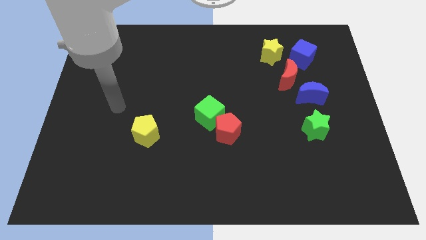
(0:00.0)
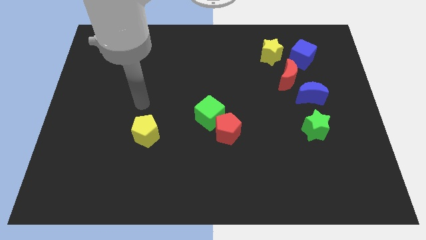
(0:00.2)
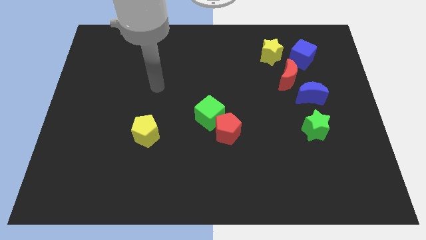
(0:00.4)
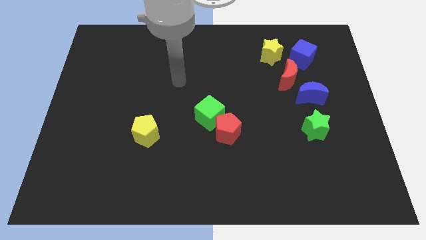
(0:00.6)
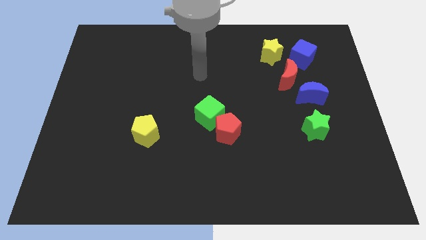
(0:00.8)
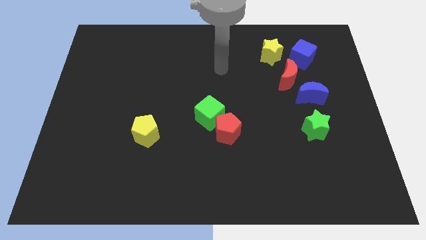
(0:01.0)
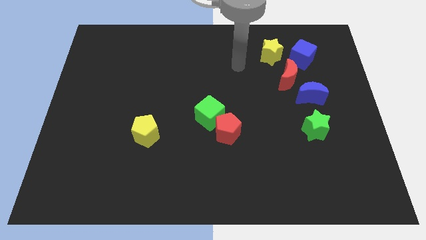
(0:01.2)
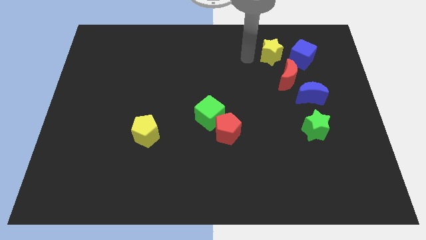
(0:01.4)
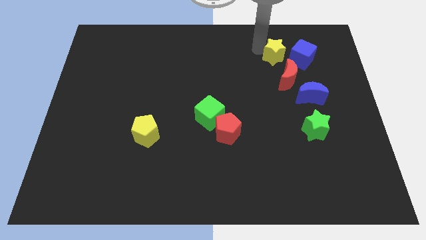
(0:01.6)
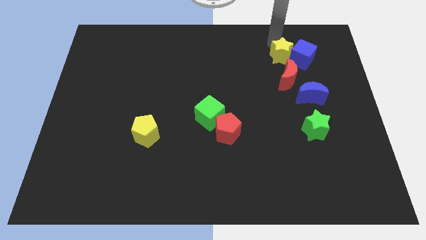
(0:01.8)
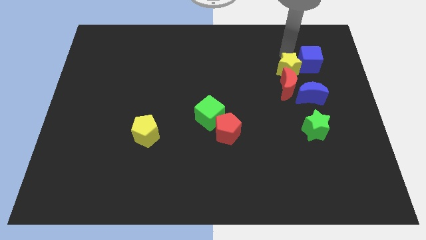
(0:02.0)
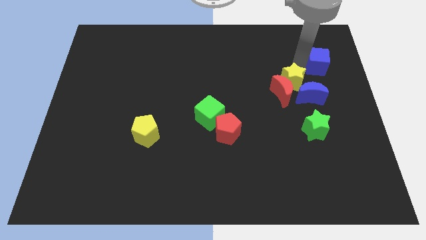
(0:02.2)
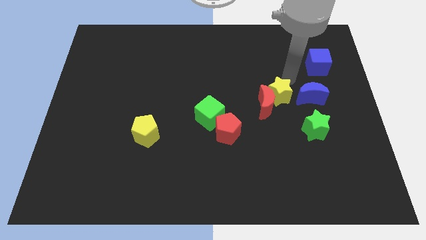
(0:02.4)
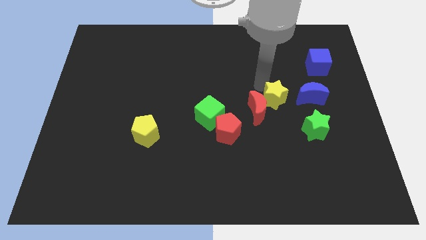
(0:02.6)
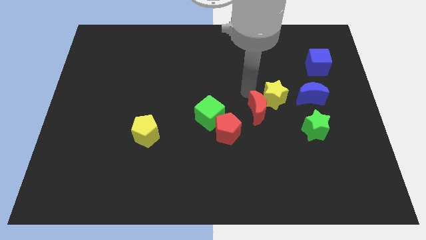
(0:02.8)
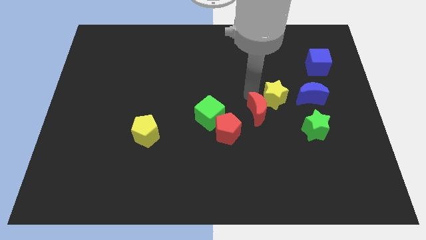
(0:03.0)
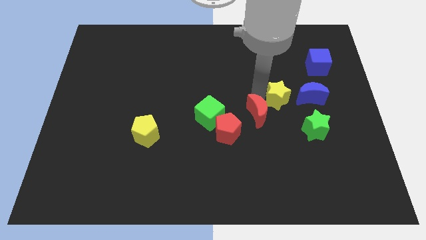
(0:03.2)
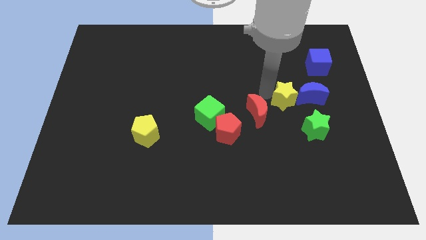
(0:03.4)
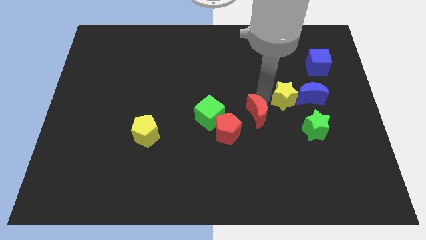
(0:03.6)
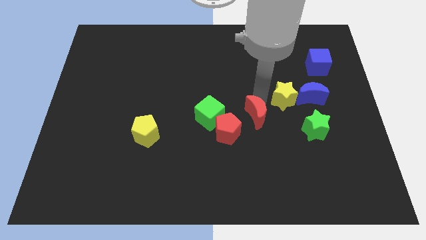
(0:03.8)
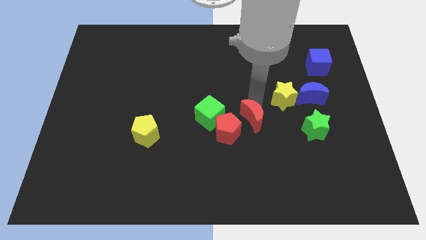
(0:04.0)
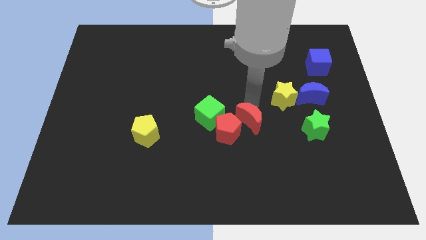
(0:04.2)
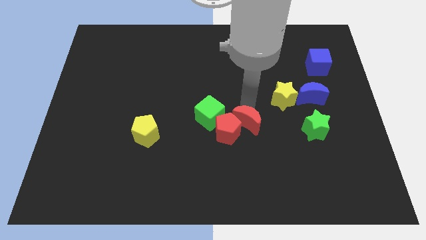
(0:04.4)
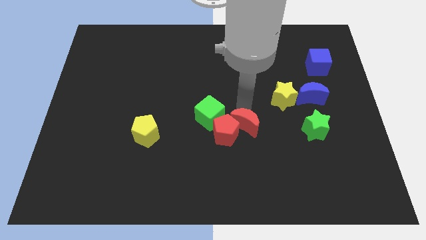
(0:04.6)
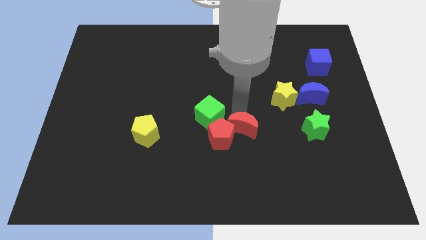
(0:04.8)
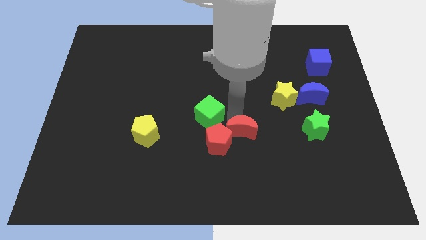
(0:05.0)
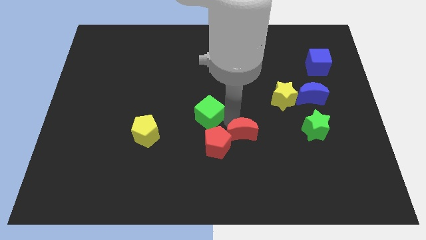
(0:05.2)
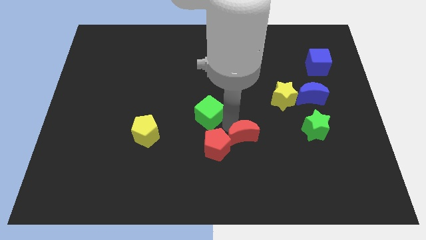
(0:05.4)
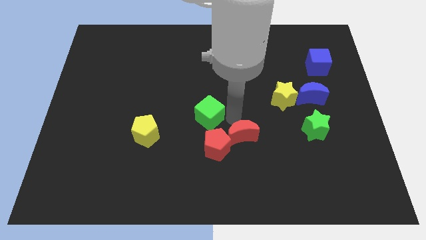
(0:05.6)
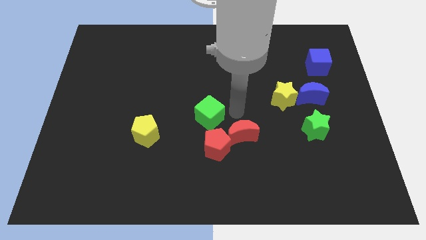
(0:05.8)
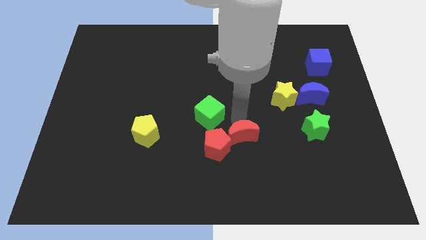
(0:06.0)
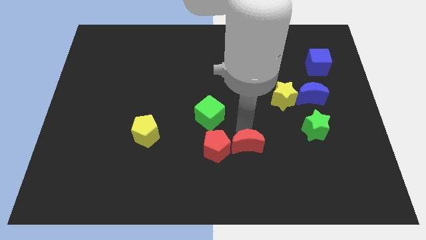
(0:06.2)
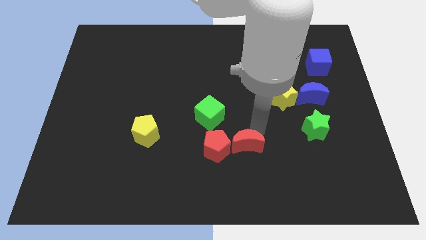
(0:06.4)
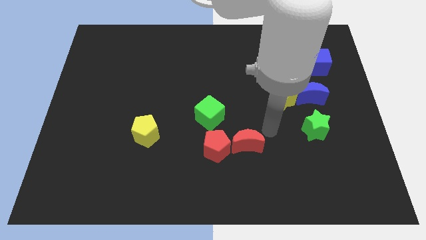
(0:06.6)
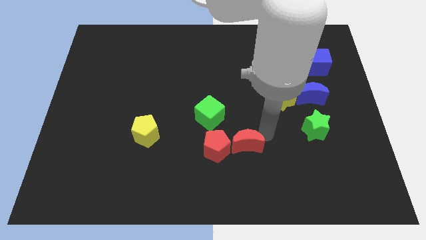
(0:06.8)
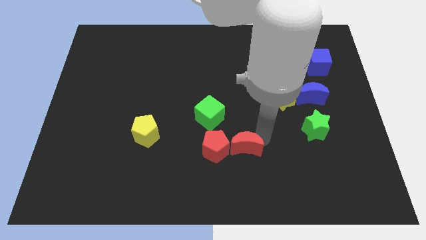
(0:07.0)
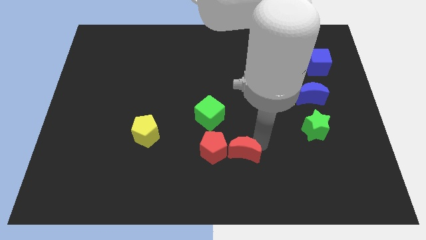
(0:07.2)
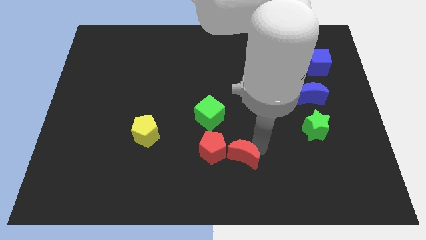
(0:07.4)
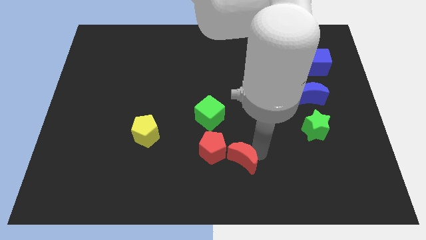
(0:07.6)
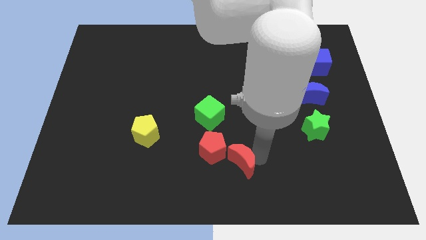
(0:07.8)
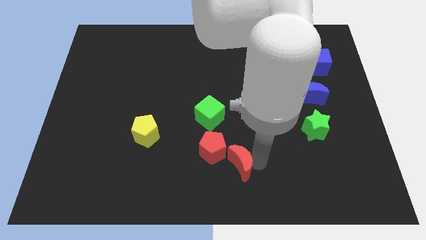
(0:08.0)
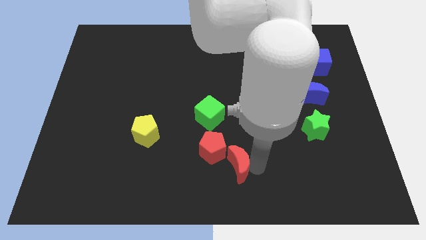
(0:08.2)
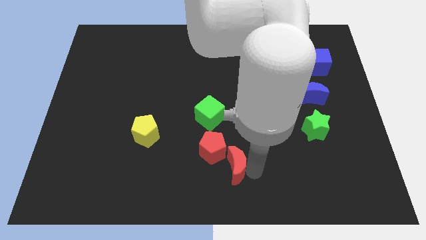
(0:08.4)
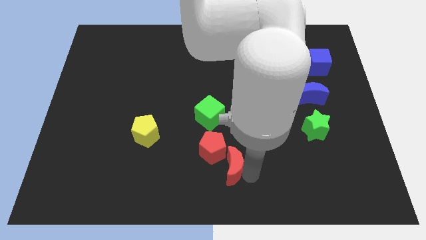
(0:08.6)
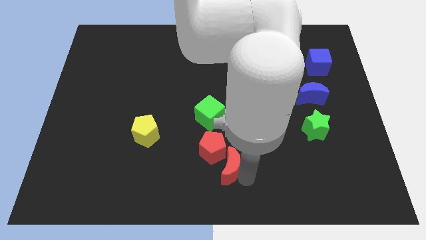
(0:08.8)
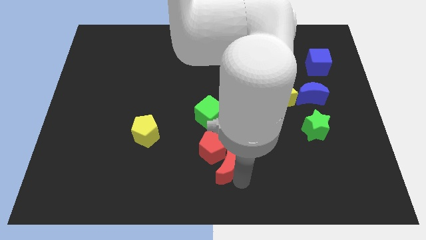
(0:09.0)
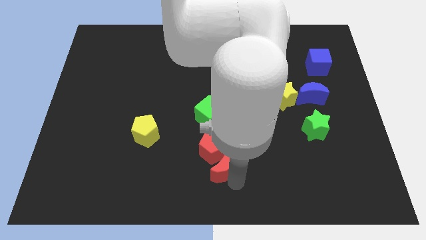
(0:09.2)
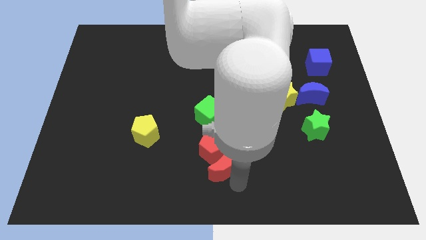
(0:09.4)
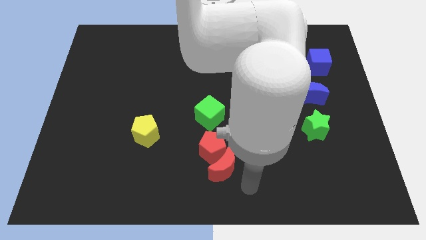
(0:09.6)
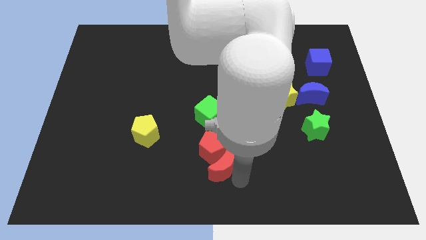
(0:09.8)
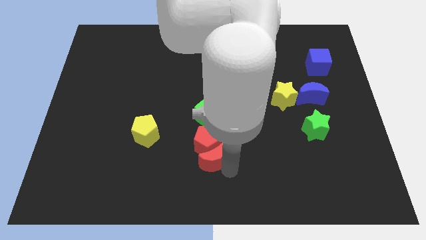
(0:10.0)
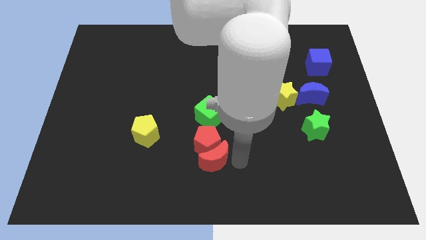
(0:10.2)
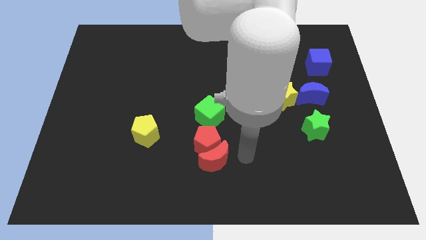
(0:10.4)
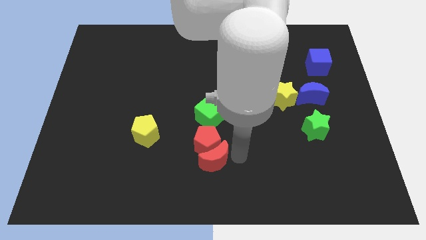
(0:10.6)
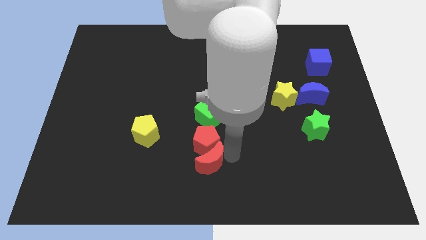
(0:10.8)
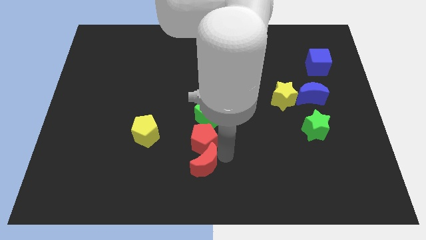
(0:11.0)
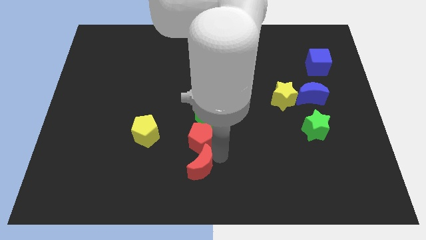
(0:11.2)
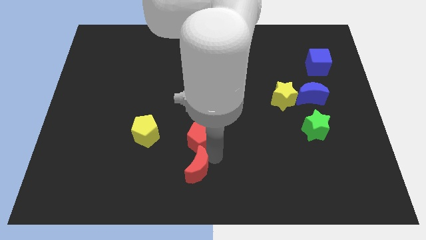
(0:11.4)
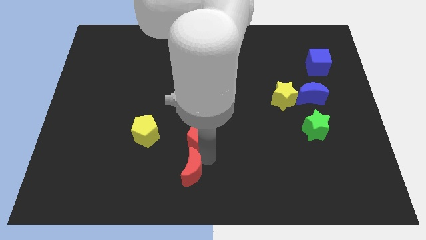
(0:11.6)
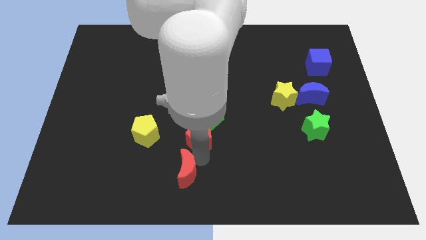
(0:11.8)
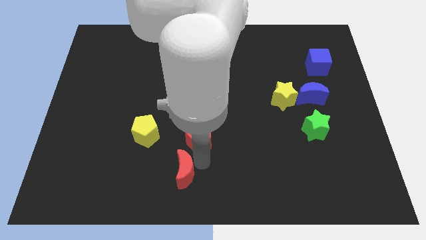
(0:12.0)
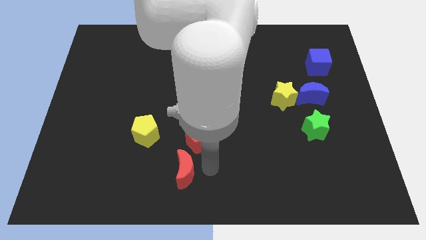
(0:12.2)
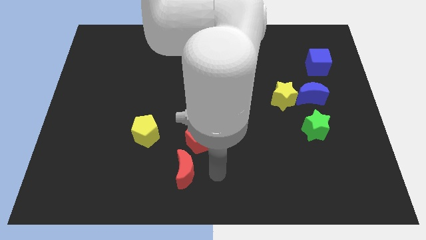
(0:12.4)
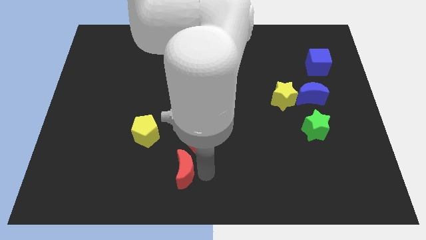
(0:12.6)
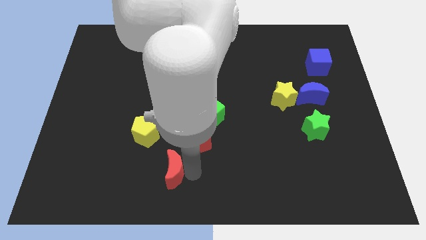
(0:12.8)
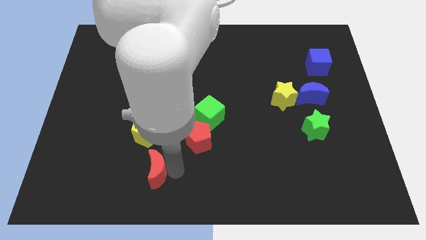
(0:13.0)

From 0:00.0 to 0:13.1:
slide the red moon to the bottom of the yellow pentagon

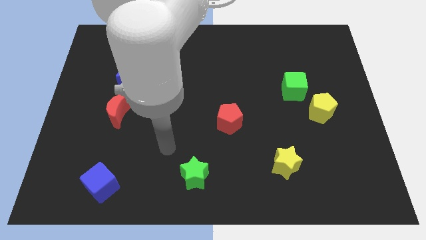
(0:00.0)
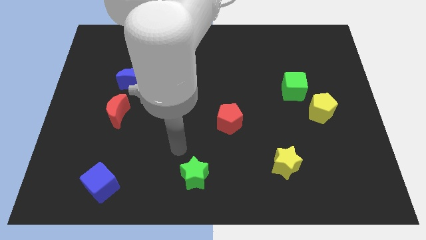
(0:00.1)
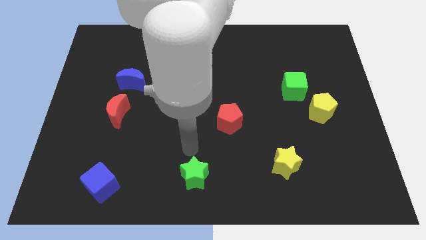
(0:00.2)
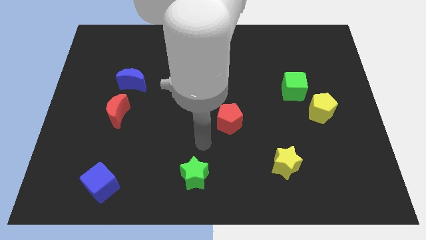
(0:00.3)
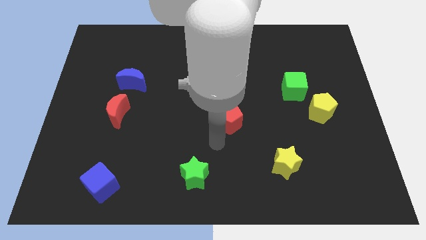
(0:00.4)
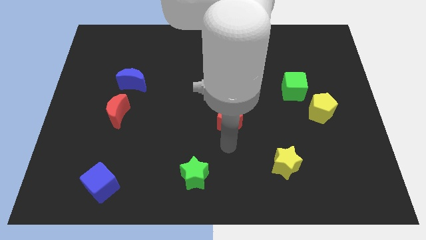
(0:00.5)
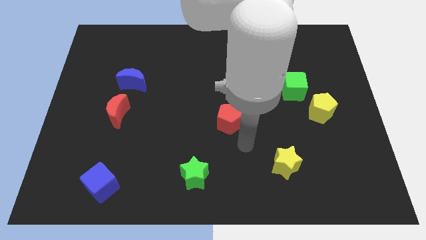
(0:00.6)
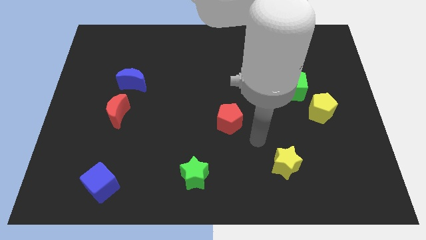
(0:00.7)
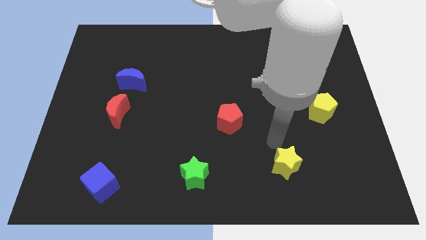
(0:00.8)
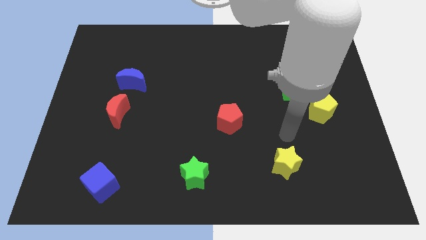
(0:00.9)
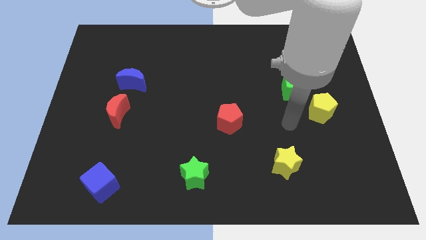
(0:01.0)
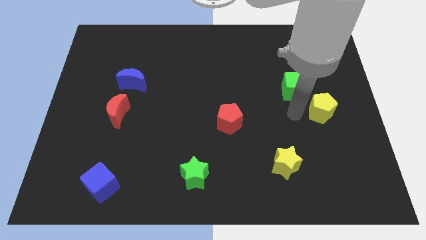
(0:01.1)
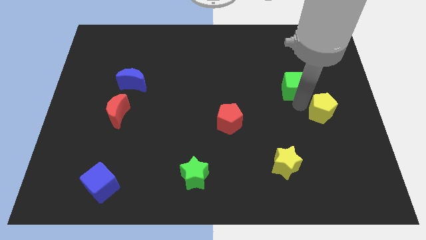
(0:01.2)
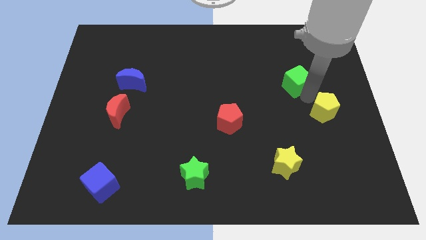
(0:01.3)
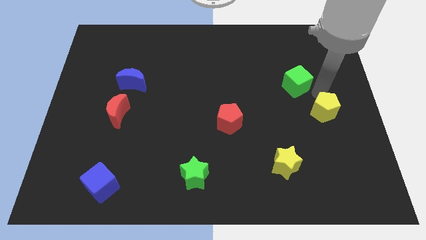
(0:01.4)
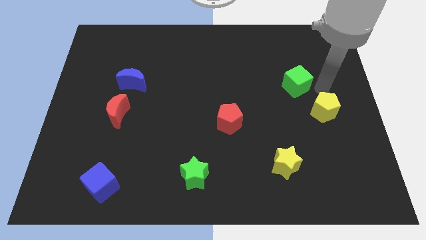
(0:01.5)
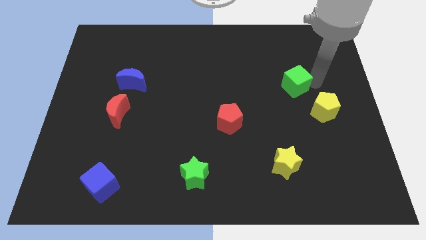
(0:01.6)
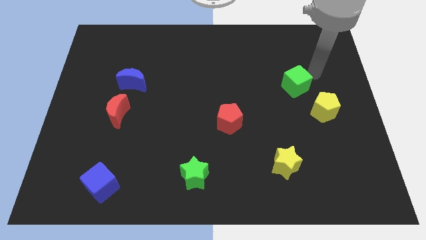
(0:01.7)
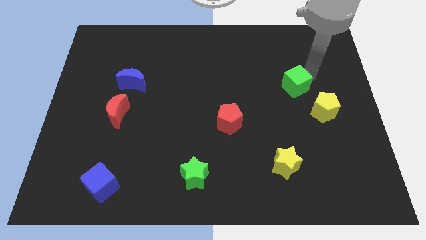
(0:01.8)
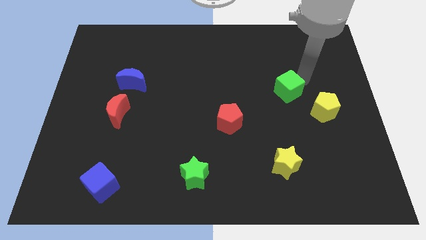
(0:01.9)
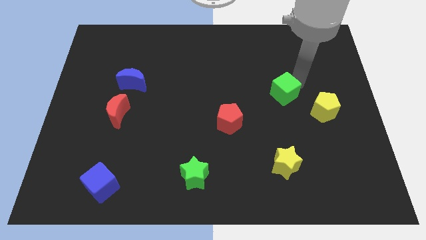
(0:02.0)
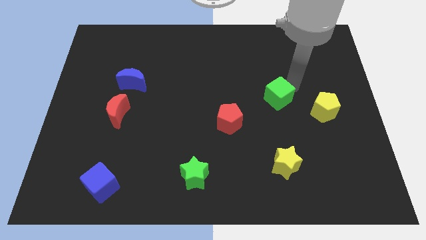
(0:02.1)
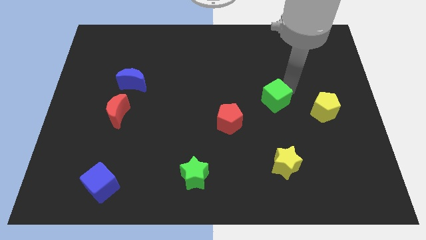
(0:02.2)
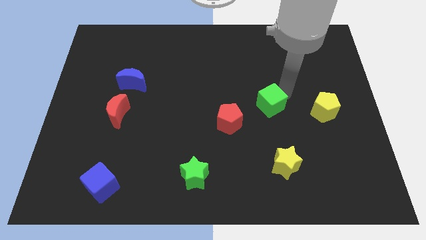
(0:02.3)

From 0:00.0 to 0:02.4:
slide the green cube to the top right of the red pentagon
